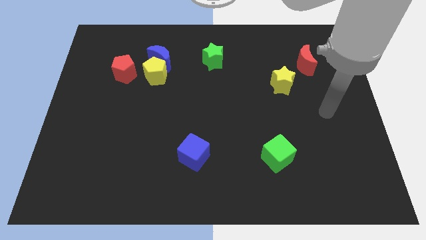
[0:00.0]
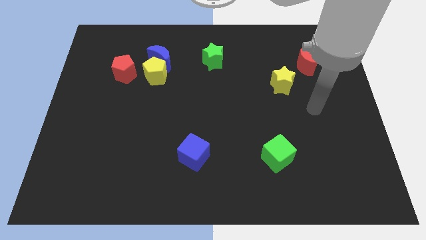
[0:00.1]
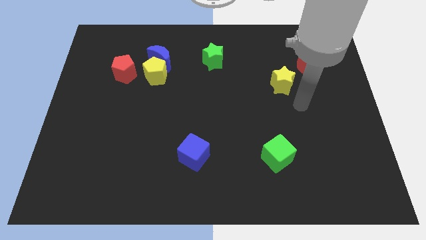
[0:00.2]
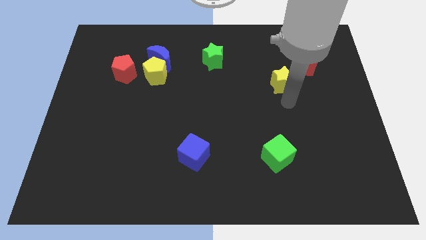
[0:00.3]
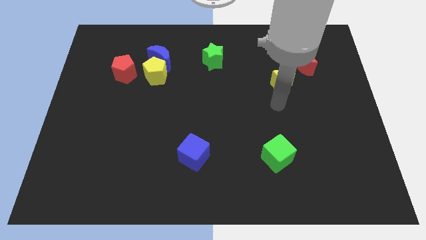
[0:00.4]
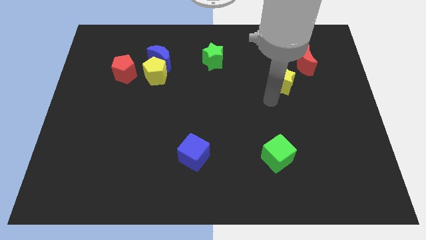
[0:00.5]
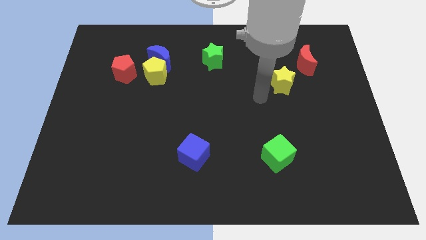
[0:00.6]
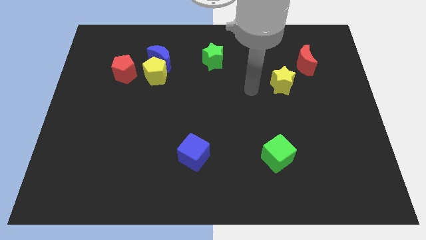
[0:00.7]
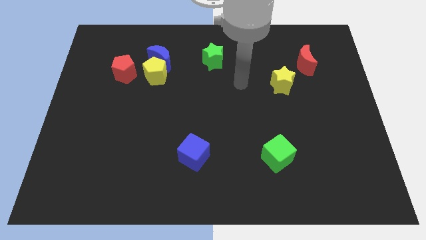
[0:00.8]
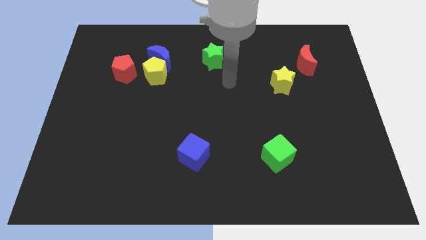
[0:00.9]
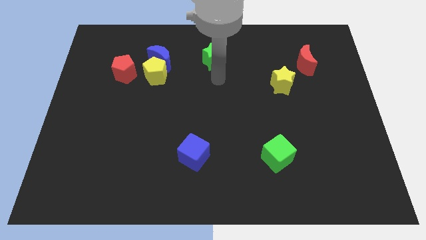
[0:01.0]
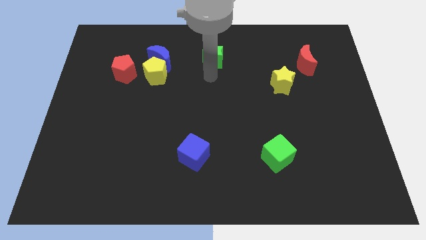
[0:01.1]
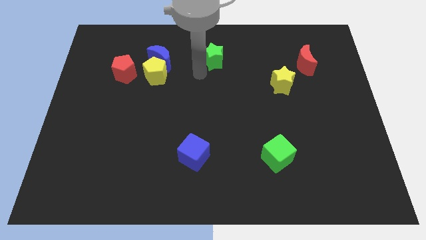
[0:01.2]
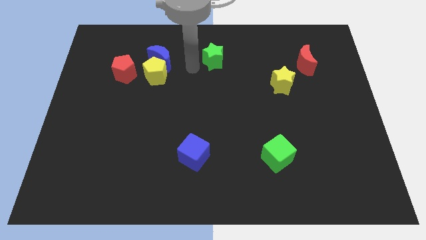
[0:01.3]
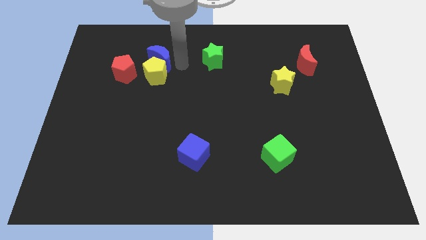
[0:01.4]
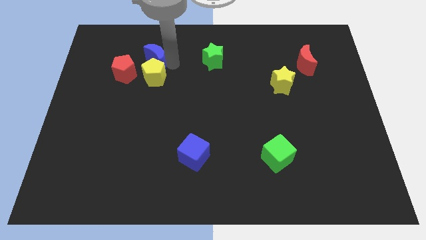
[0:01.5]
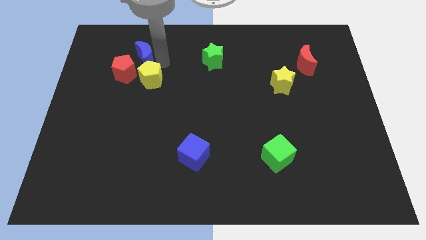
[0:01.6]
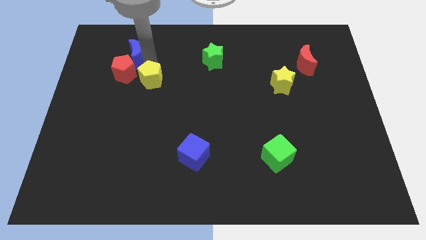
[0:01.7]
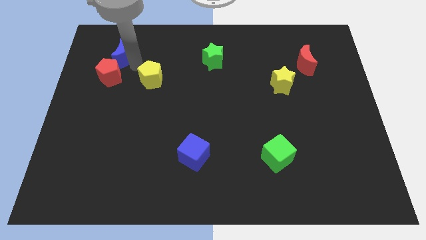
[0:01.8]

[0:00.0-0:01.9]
separate the yellow pentagon from the blue moon and red pentagon

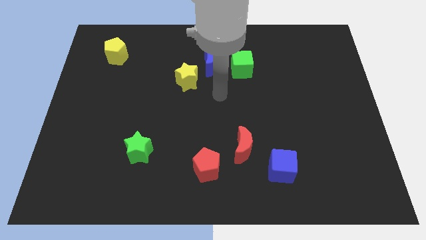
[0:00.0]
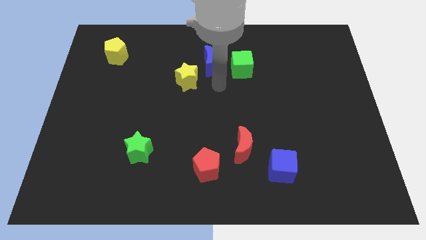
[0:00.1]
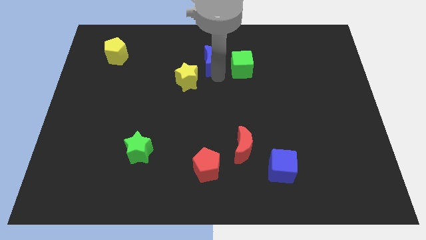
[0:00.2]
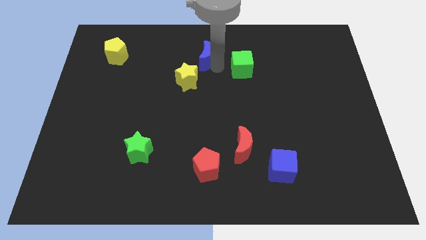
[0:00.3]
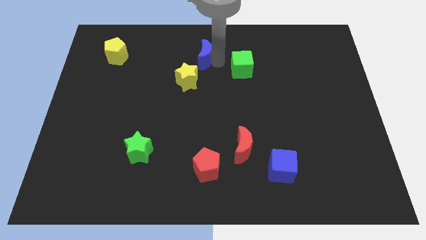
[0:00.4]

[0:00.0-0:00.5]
move the green cube away from the blue moon

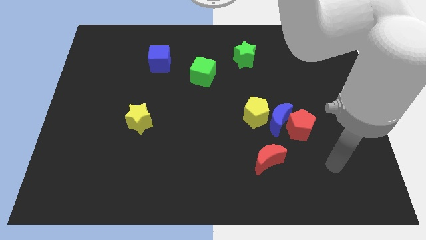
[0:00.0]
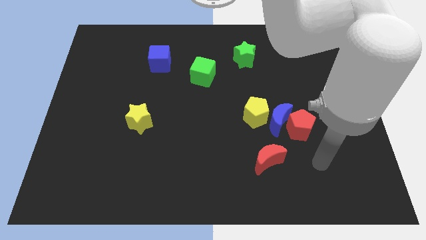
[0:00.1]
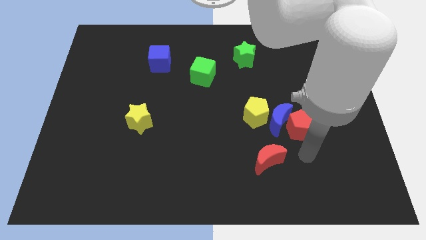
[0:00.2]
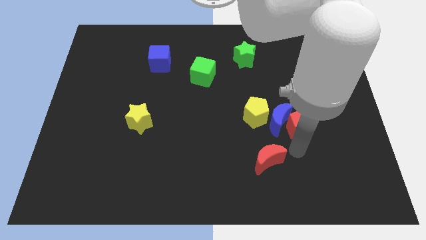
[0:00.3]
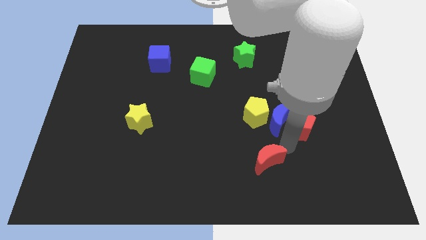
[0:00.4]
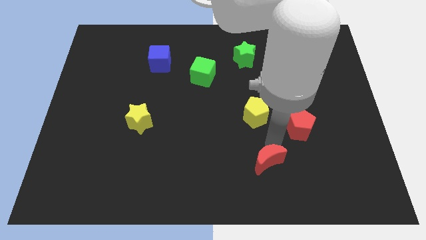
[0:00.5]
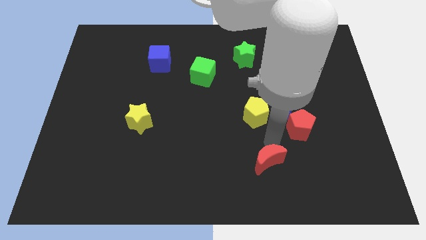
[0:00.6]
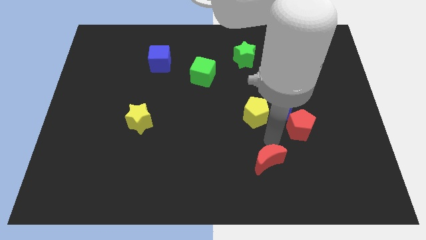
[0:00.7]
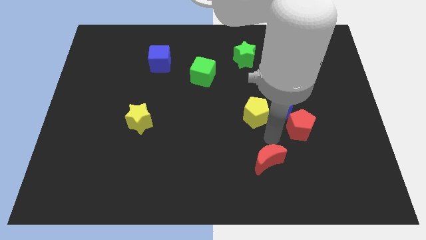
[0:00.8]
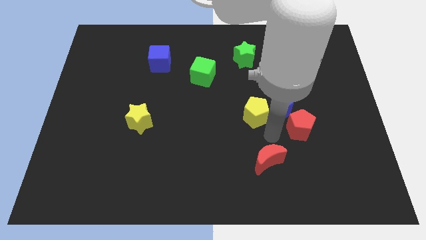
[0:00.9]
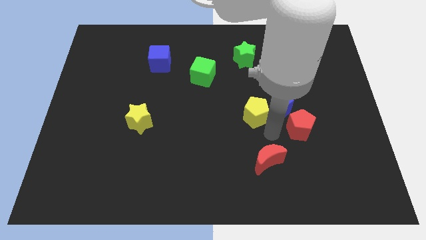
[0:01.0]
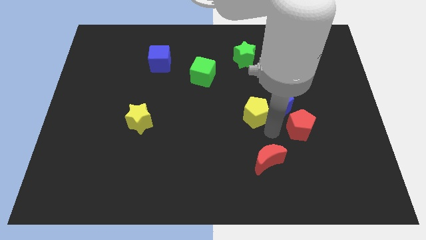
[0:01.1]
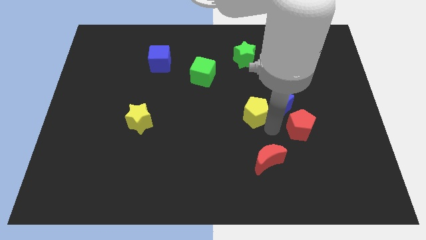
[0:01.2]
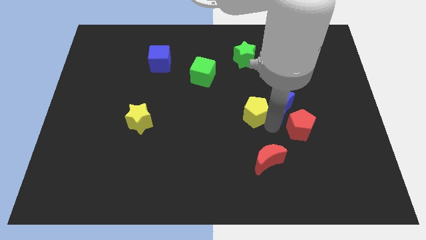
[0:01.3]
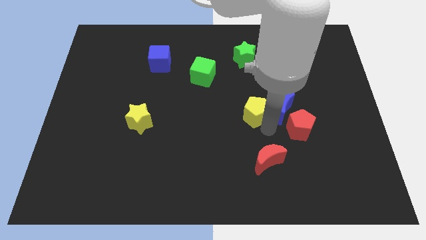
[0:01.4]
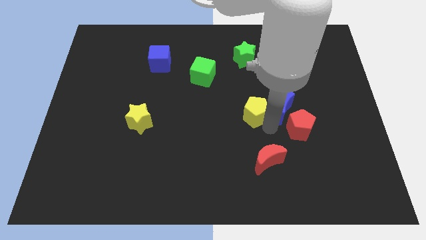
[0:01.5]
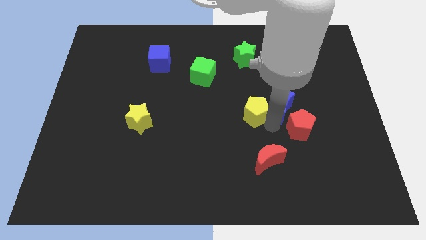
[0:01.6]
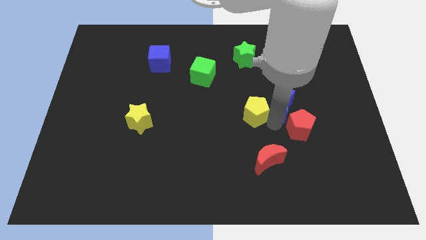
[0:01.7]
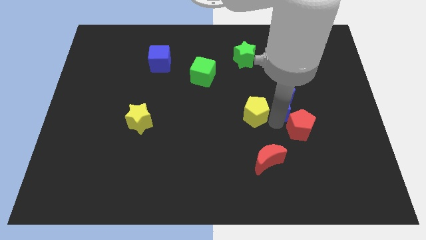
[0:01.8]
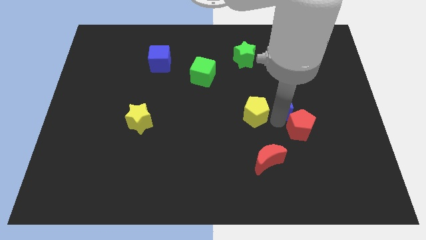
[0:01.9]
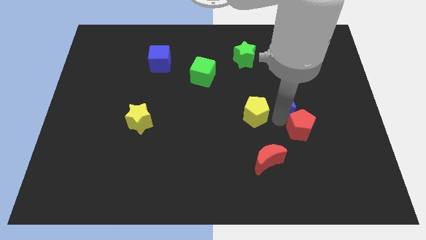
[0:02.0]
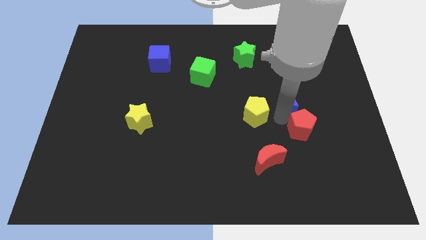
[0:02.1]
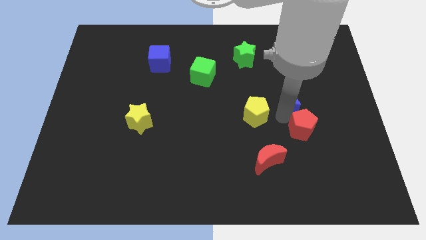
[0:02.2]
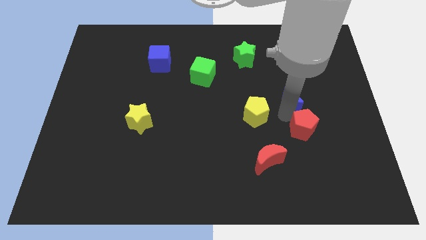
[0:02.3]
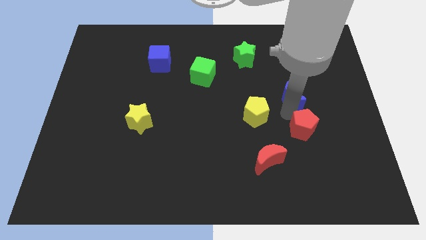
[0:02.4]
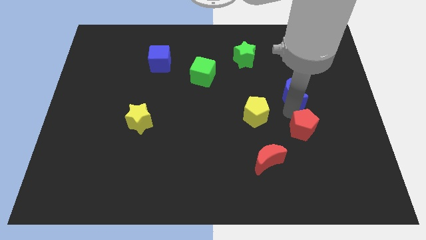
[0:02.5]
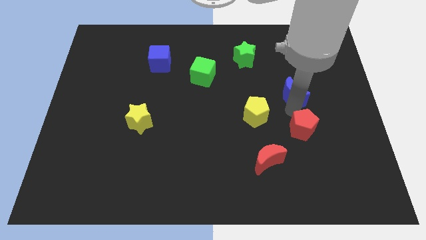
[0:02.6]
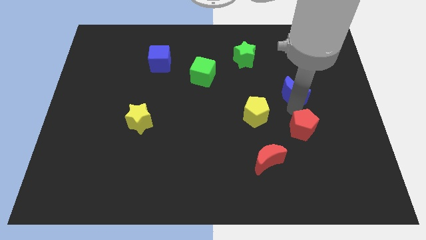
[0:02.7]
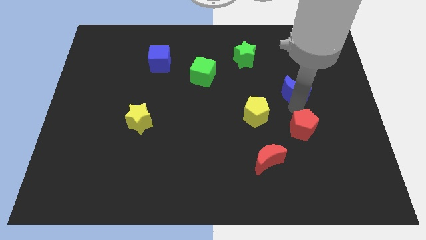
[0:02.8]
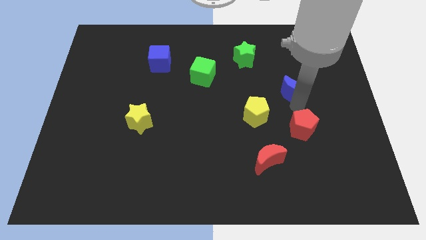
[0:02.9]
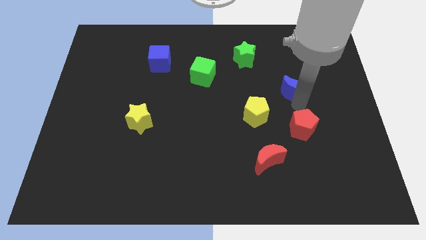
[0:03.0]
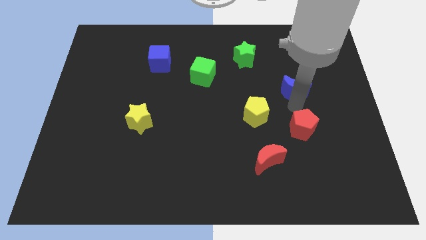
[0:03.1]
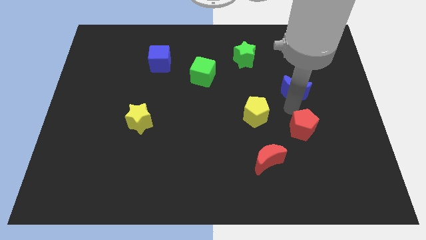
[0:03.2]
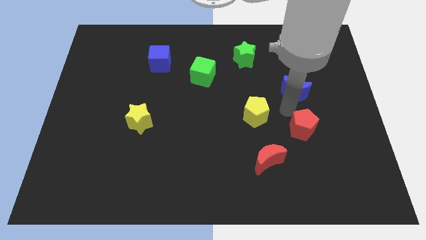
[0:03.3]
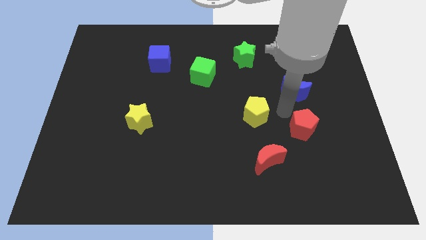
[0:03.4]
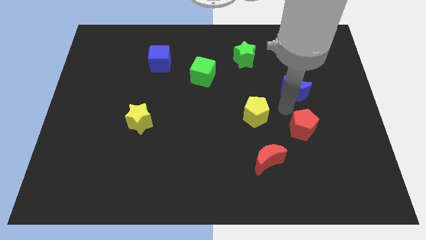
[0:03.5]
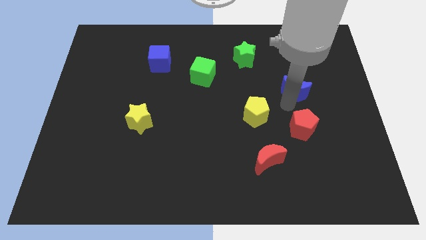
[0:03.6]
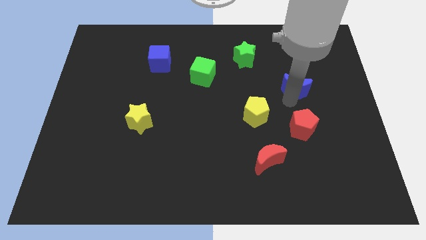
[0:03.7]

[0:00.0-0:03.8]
move the blue moon away from the red pentagon and yellow pentagon

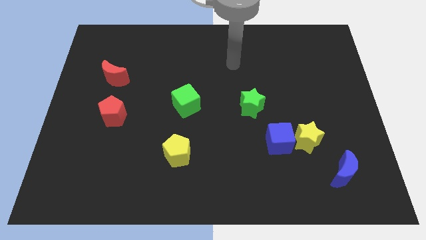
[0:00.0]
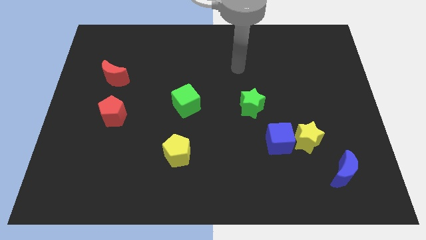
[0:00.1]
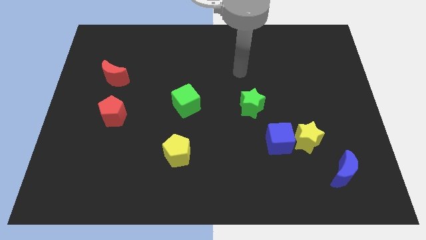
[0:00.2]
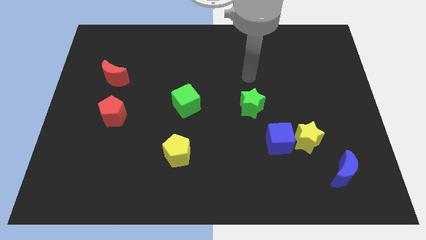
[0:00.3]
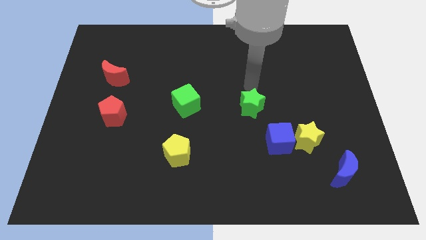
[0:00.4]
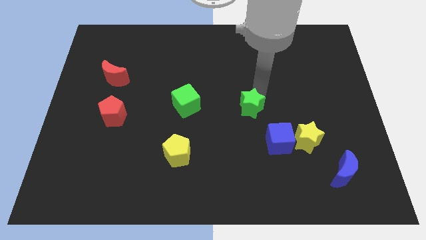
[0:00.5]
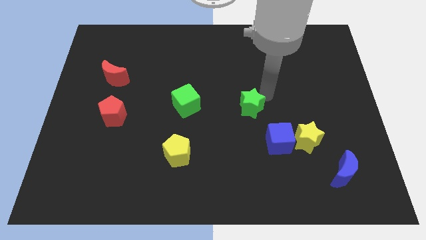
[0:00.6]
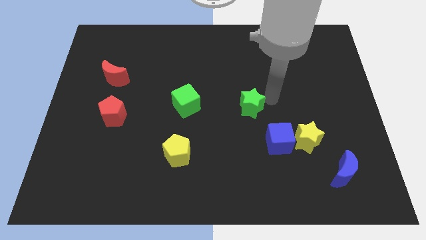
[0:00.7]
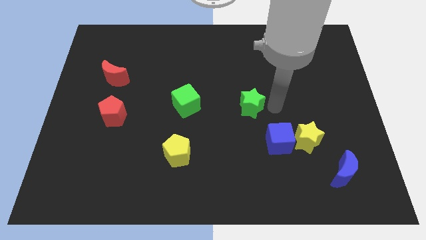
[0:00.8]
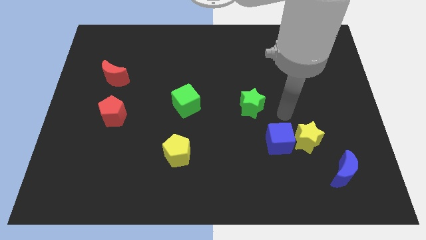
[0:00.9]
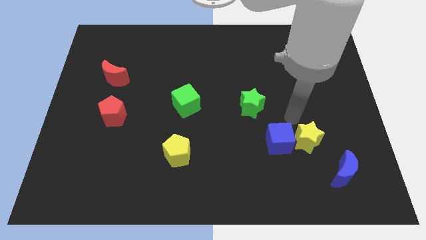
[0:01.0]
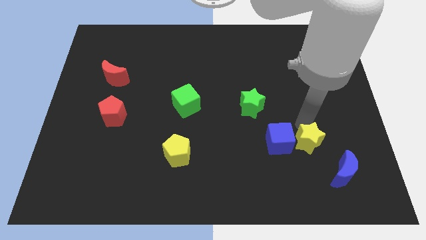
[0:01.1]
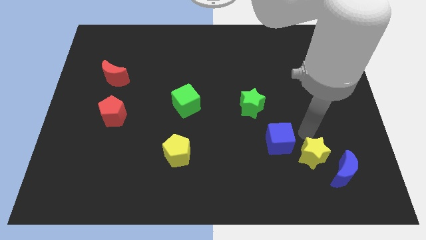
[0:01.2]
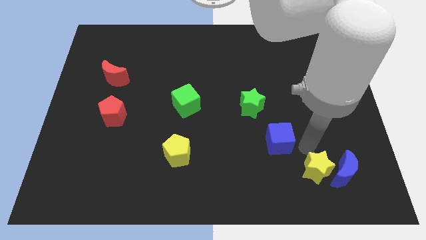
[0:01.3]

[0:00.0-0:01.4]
move the blue cube away from the yellow star

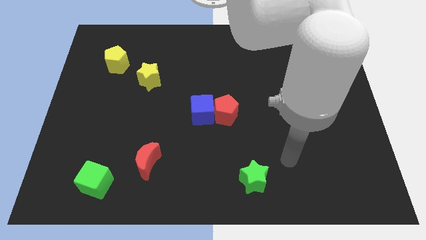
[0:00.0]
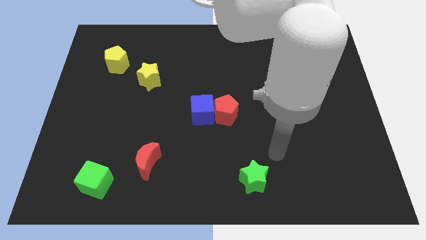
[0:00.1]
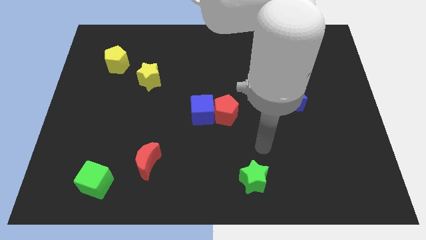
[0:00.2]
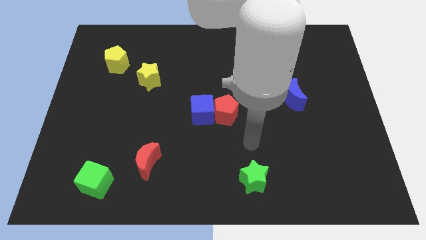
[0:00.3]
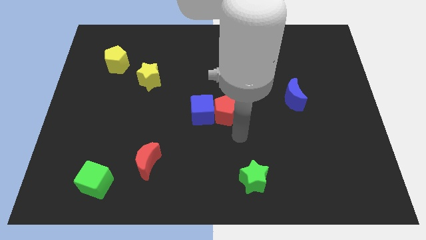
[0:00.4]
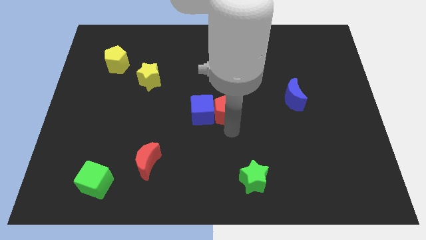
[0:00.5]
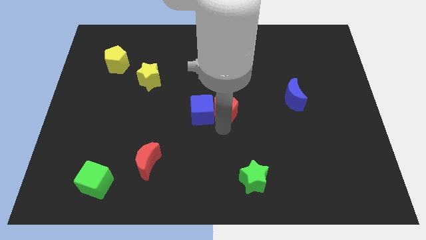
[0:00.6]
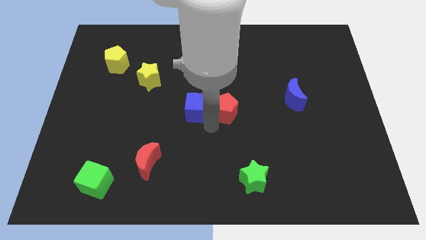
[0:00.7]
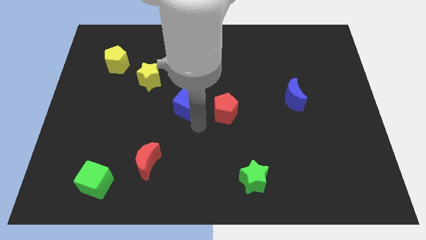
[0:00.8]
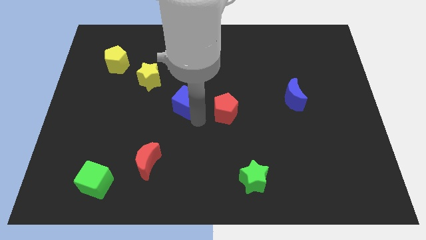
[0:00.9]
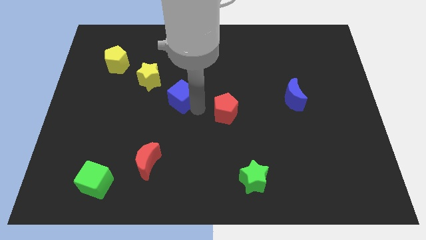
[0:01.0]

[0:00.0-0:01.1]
move the red pentagon away from the blue cube

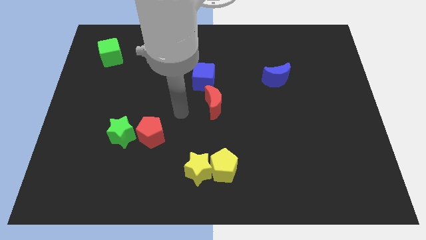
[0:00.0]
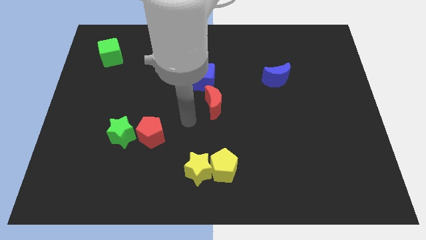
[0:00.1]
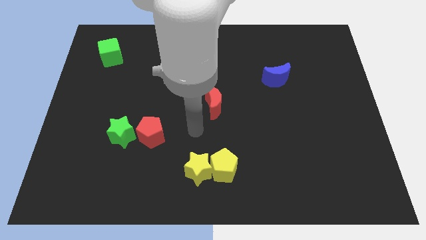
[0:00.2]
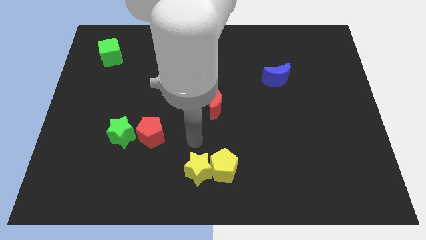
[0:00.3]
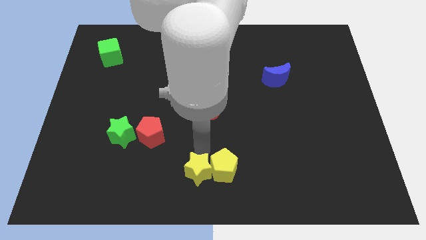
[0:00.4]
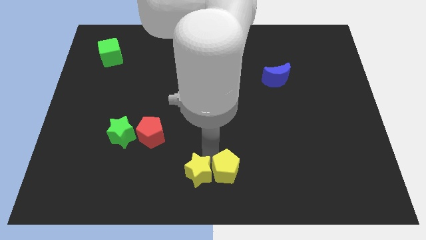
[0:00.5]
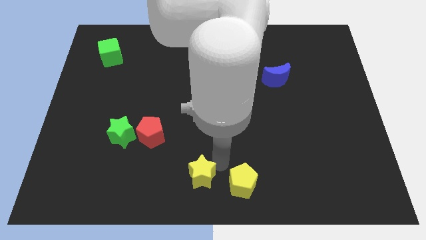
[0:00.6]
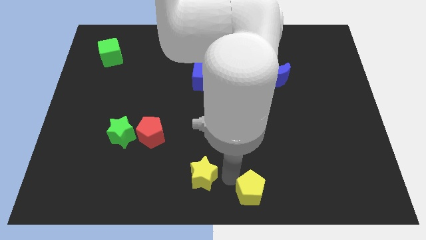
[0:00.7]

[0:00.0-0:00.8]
move the yellow star away from the yellow pentagon
